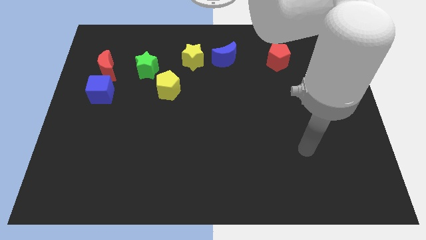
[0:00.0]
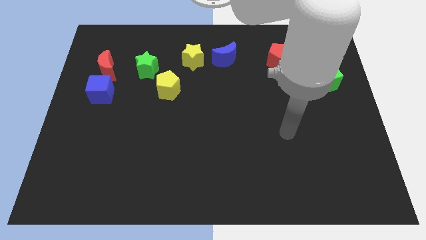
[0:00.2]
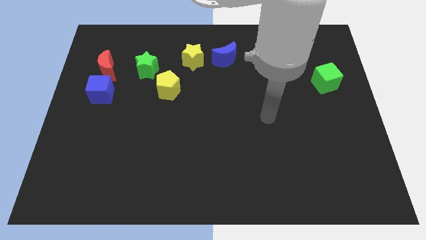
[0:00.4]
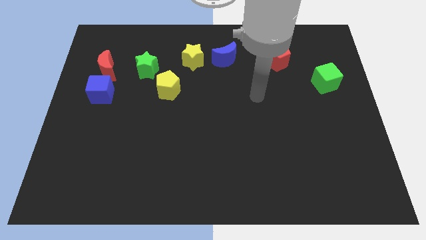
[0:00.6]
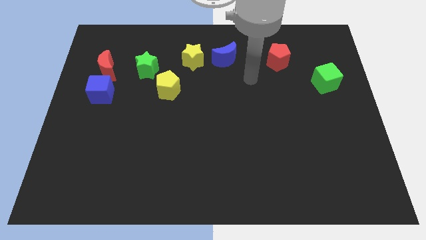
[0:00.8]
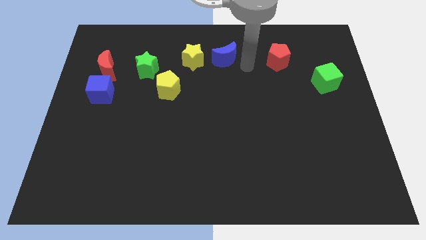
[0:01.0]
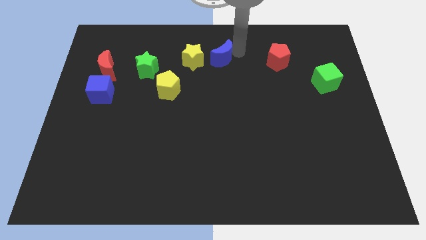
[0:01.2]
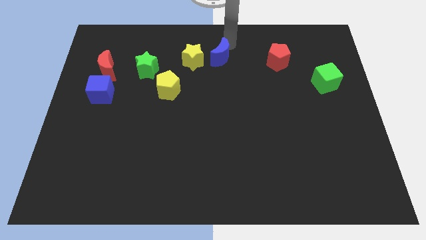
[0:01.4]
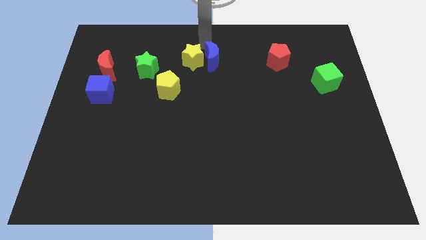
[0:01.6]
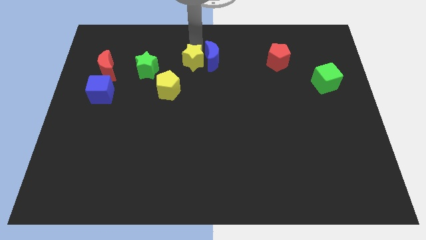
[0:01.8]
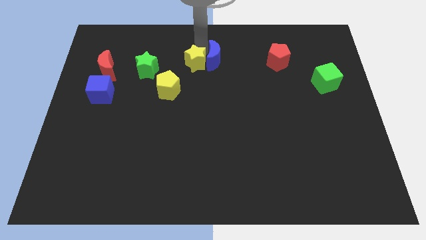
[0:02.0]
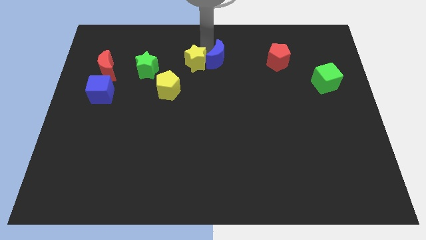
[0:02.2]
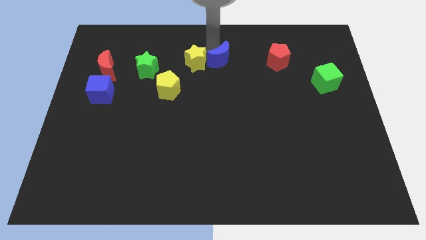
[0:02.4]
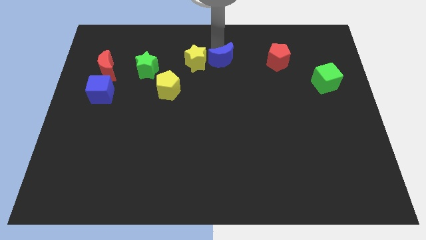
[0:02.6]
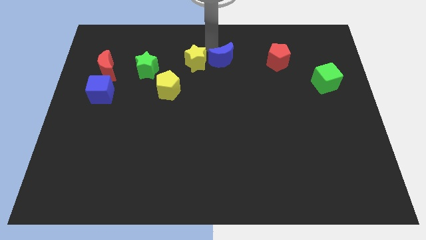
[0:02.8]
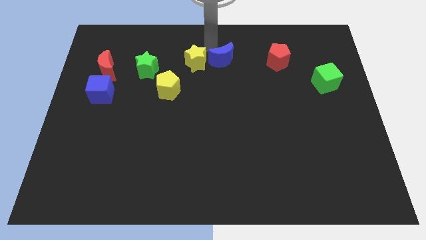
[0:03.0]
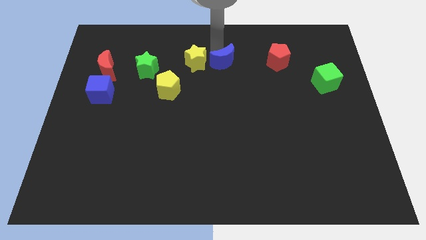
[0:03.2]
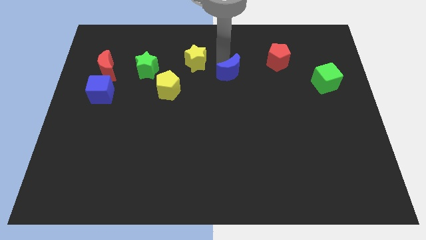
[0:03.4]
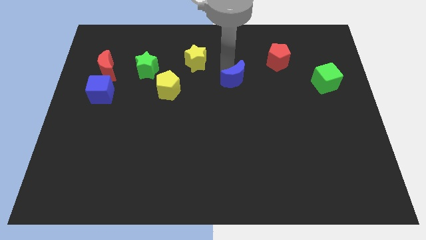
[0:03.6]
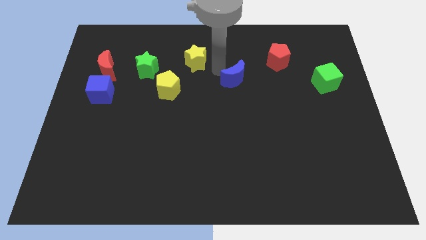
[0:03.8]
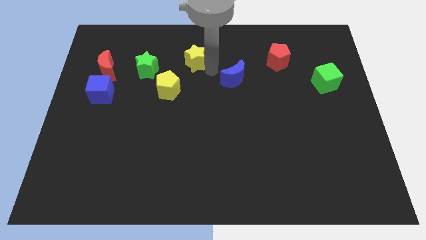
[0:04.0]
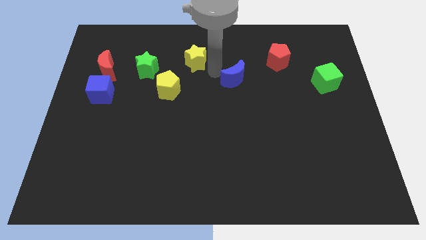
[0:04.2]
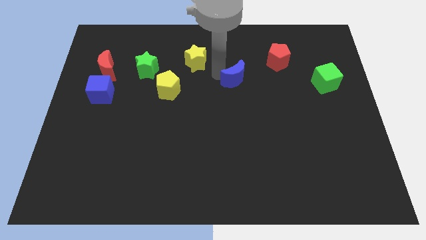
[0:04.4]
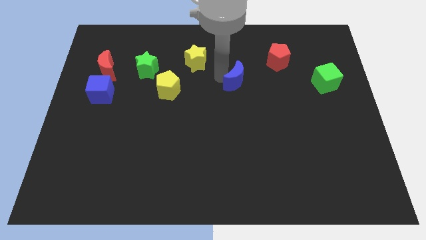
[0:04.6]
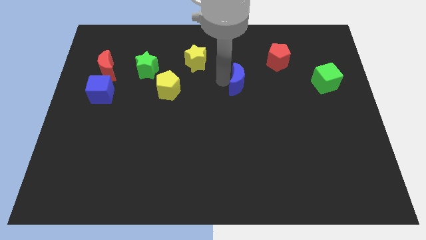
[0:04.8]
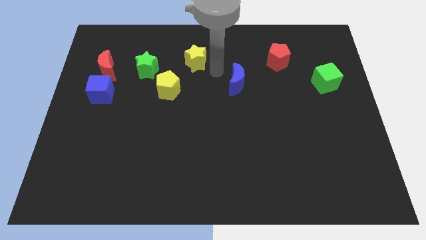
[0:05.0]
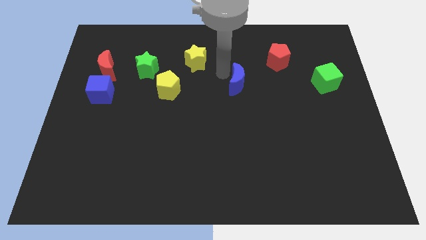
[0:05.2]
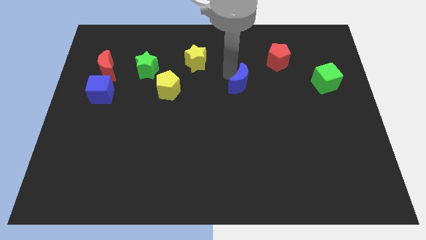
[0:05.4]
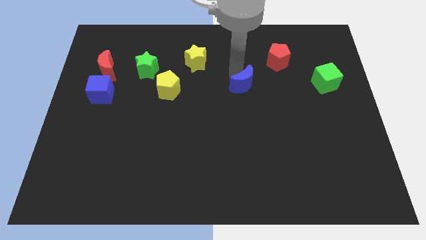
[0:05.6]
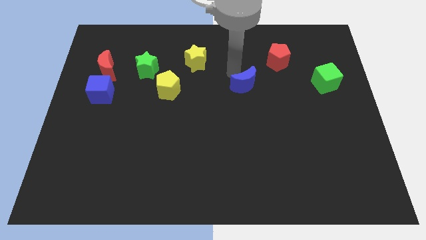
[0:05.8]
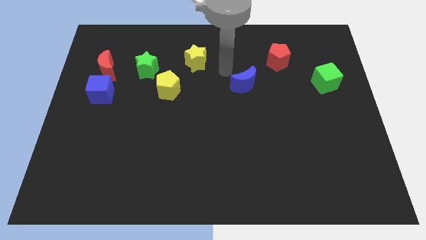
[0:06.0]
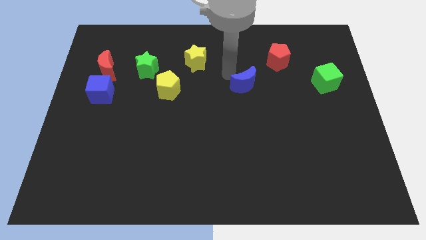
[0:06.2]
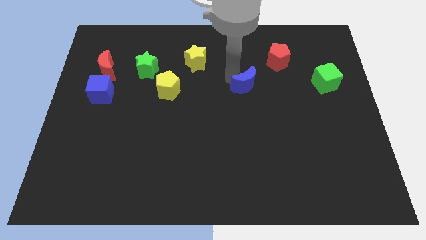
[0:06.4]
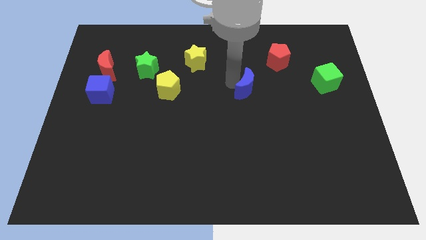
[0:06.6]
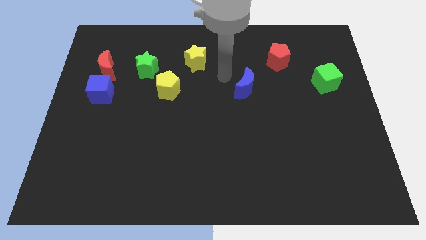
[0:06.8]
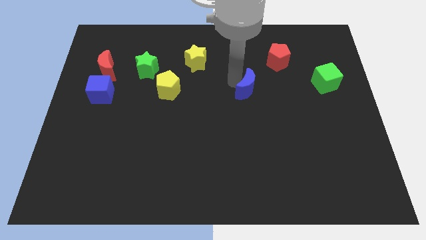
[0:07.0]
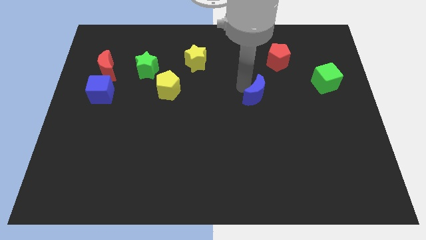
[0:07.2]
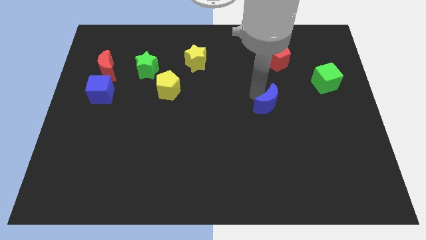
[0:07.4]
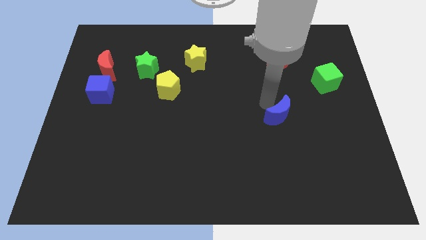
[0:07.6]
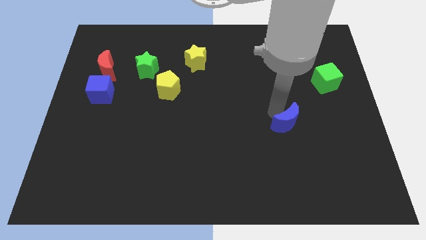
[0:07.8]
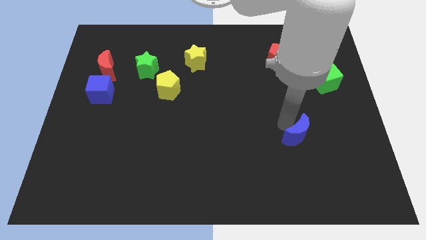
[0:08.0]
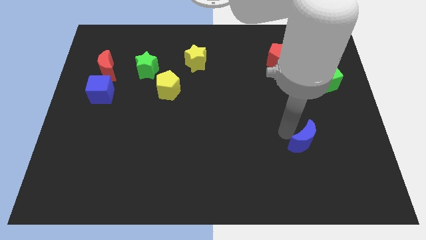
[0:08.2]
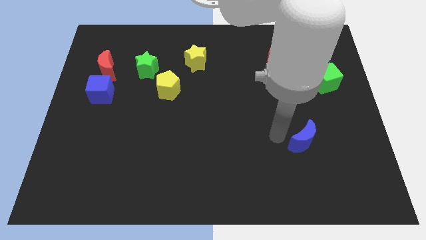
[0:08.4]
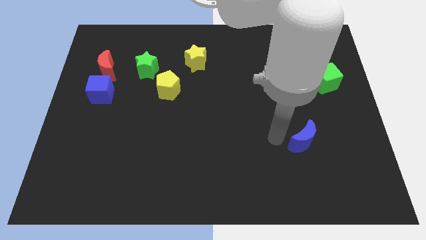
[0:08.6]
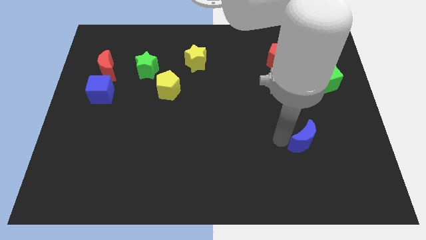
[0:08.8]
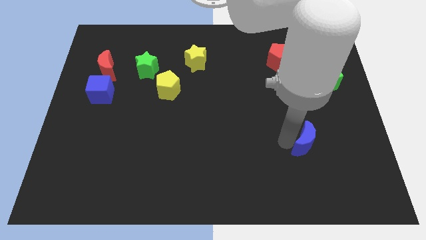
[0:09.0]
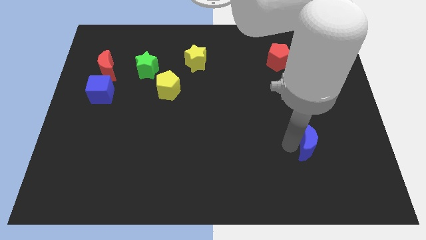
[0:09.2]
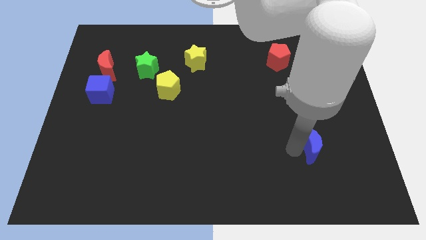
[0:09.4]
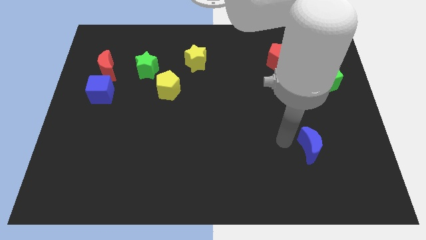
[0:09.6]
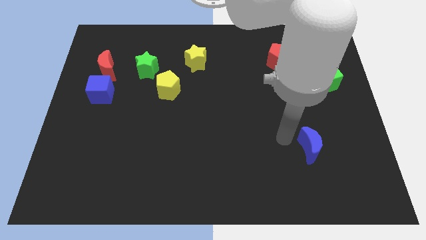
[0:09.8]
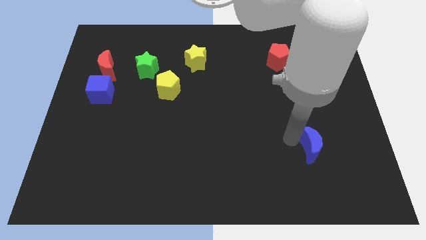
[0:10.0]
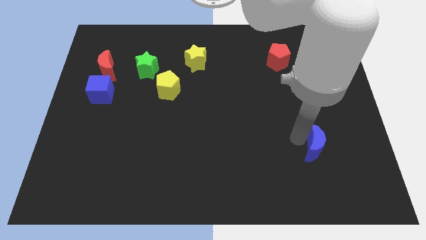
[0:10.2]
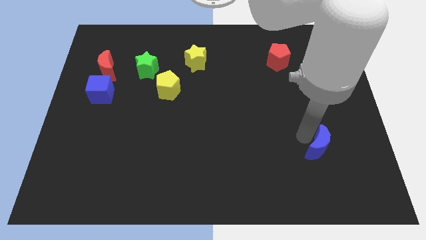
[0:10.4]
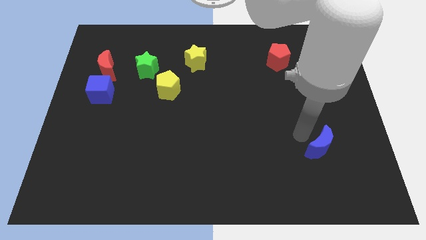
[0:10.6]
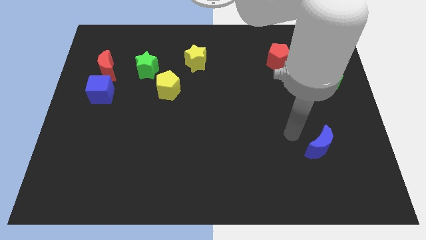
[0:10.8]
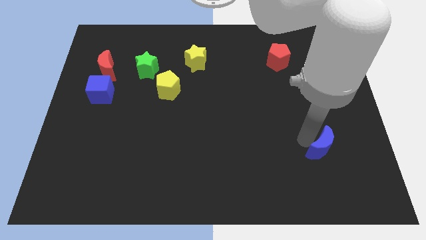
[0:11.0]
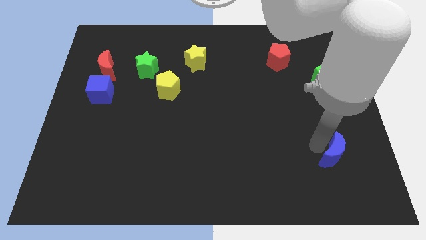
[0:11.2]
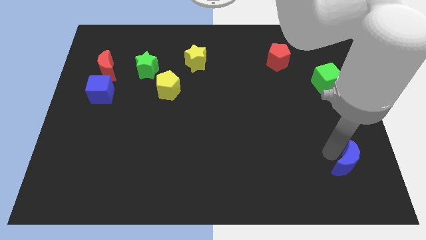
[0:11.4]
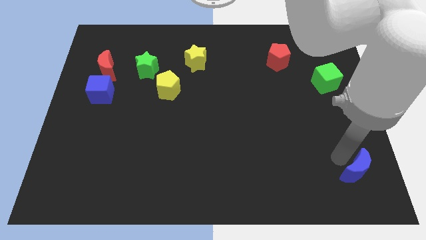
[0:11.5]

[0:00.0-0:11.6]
slide the blue moon to the bottom right of the board

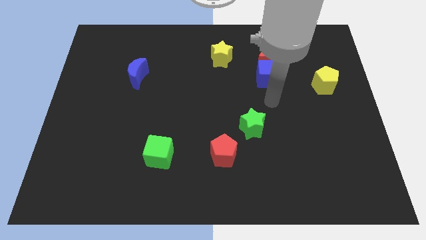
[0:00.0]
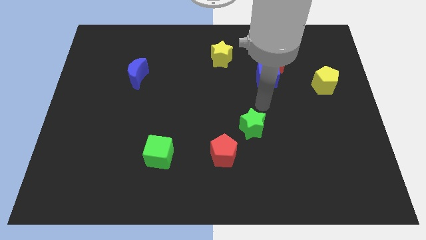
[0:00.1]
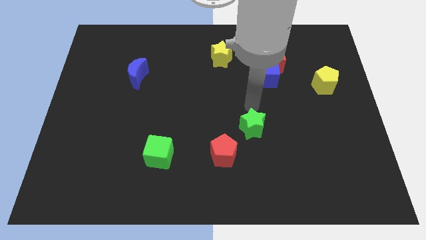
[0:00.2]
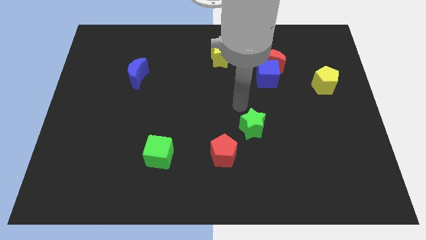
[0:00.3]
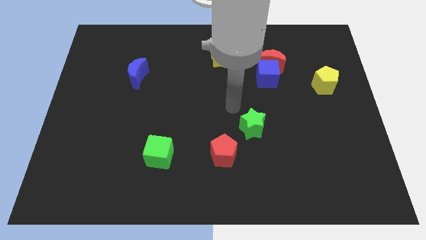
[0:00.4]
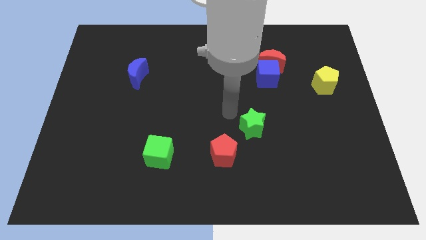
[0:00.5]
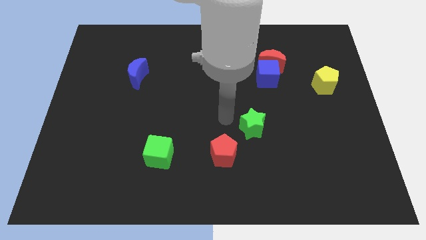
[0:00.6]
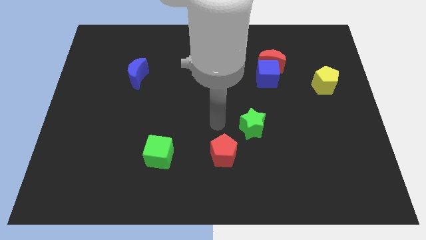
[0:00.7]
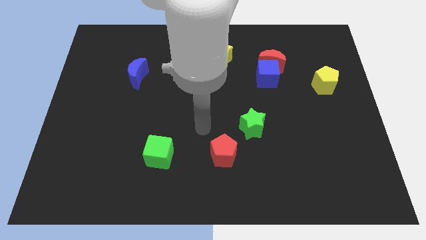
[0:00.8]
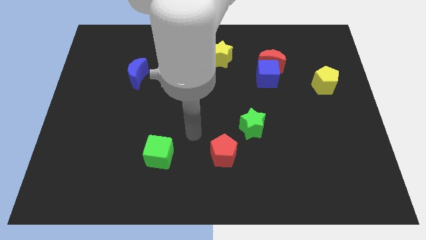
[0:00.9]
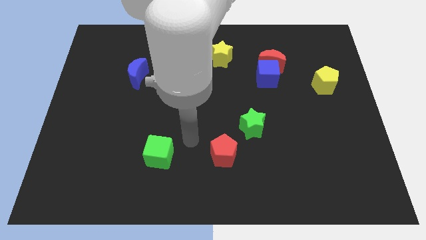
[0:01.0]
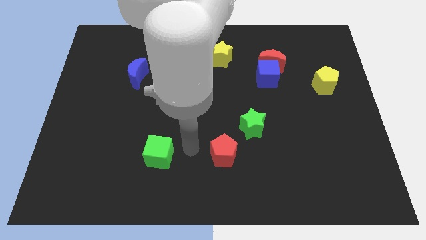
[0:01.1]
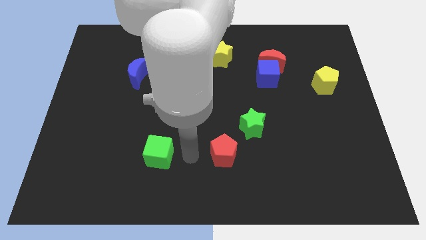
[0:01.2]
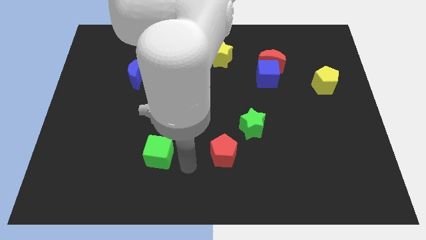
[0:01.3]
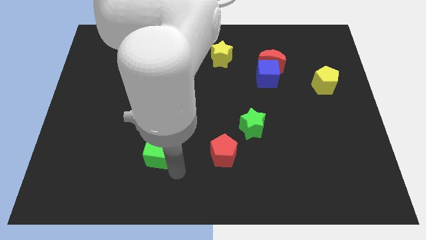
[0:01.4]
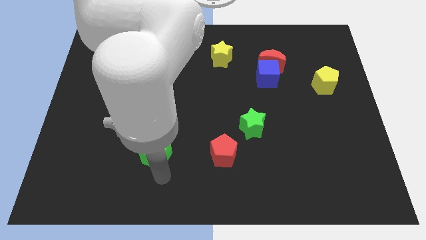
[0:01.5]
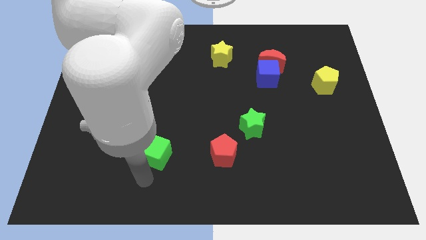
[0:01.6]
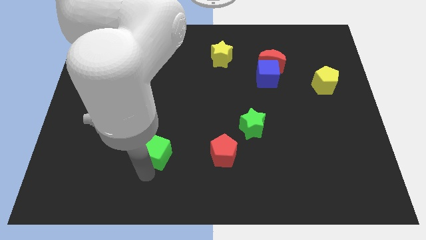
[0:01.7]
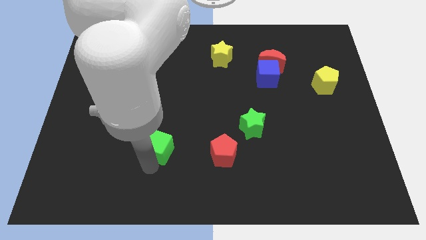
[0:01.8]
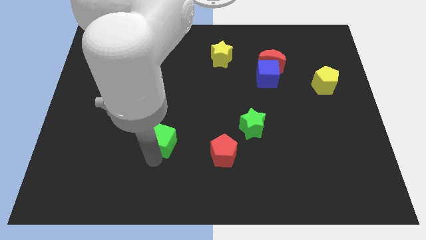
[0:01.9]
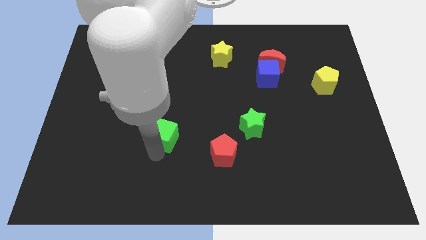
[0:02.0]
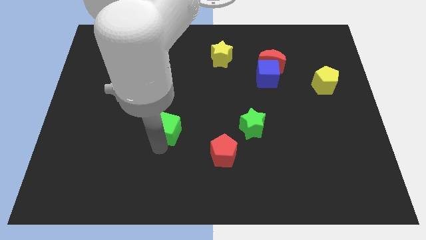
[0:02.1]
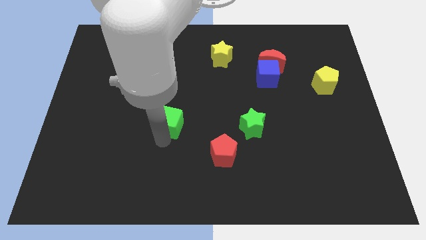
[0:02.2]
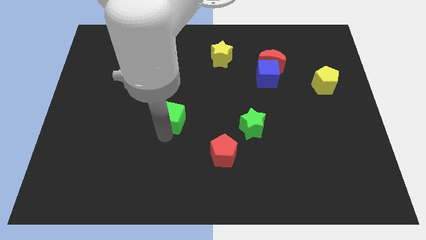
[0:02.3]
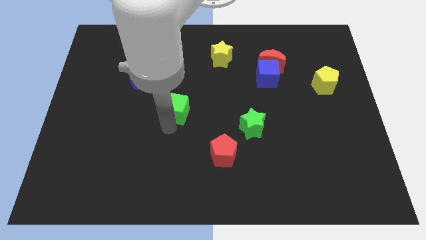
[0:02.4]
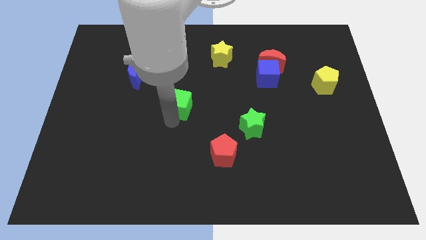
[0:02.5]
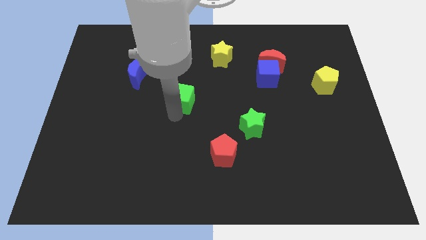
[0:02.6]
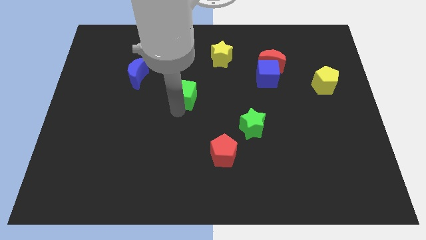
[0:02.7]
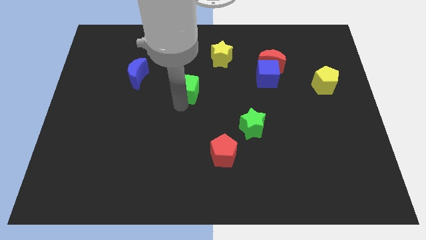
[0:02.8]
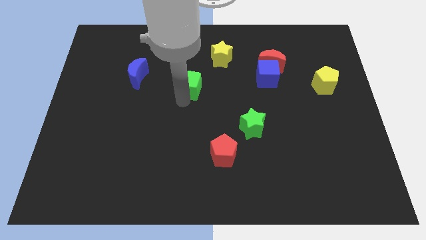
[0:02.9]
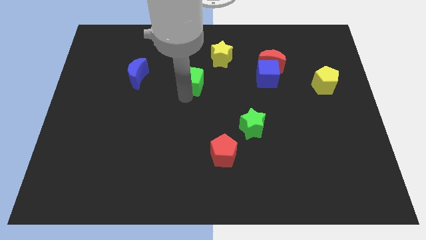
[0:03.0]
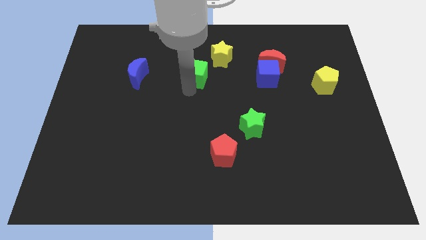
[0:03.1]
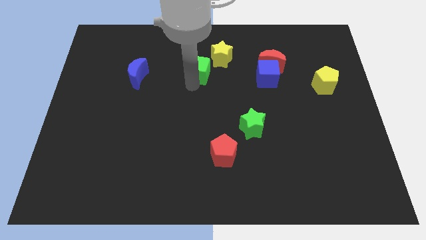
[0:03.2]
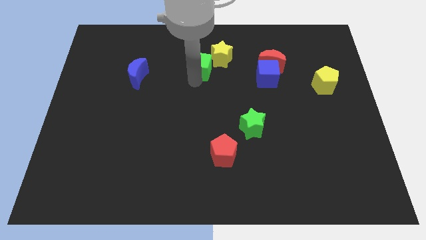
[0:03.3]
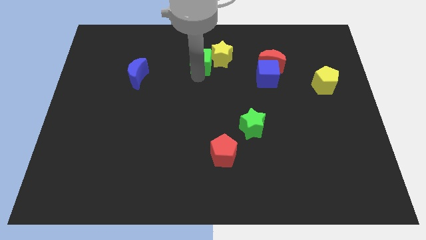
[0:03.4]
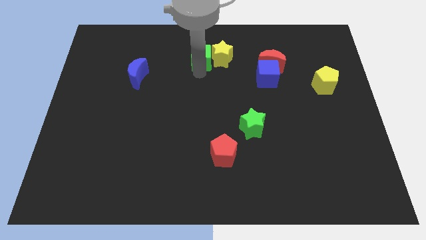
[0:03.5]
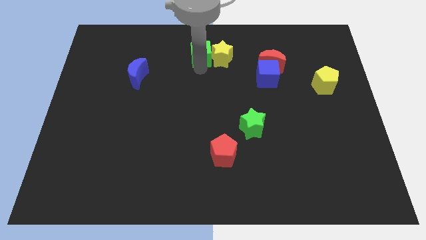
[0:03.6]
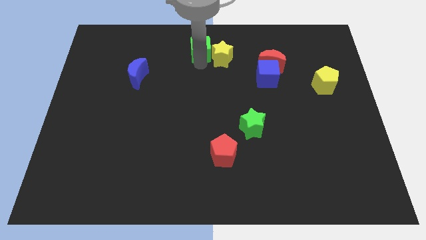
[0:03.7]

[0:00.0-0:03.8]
push the green cube to the top side
